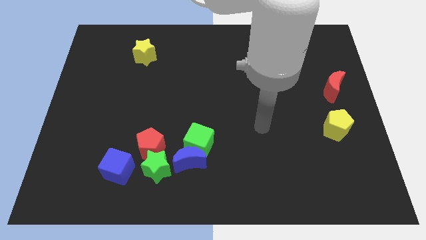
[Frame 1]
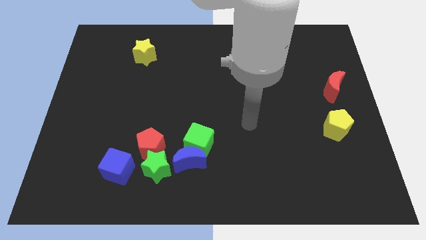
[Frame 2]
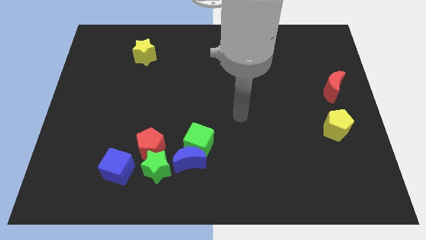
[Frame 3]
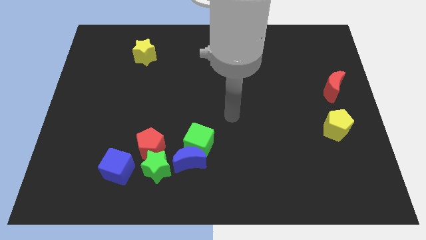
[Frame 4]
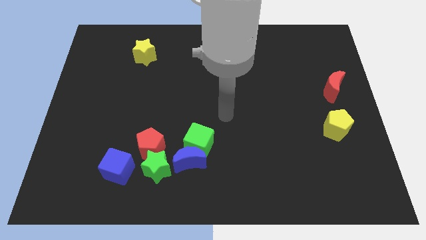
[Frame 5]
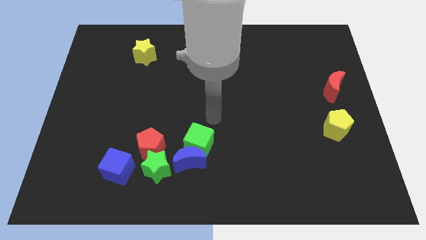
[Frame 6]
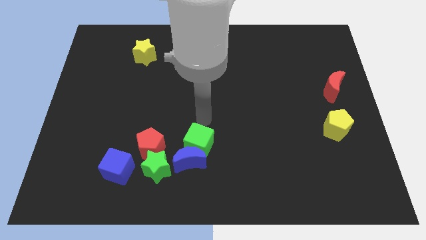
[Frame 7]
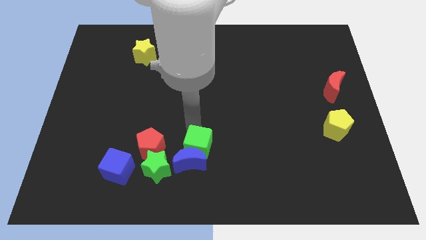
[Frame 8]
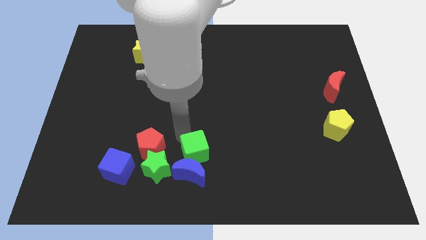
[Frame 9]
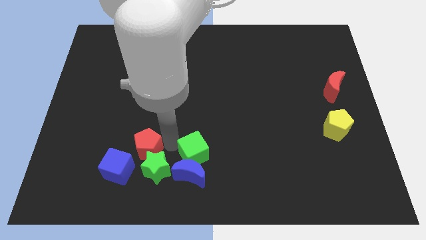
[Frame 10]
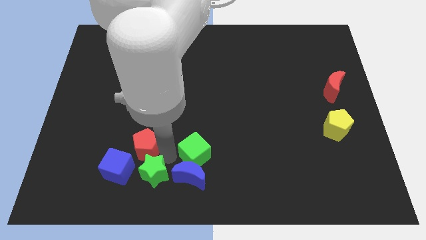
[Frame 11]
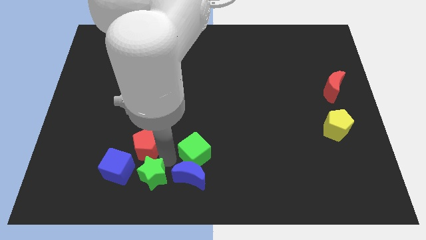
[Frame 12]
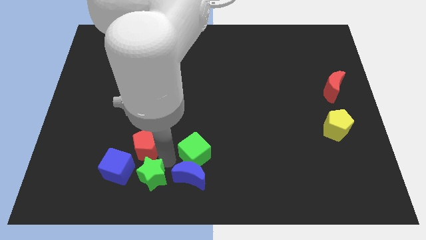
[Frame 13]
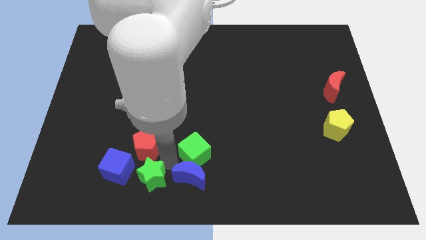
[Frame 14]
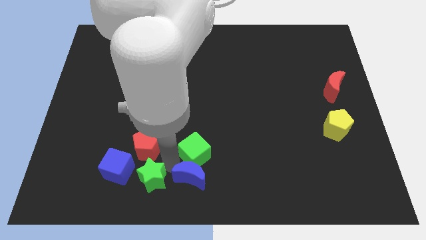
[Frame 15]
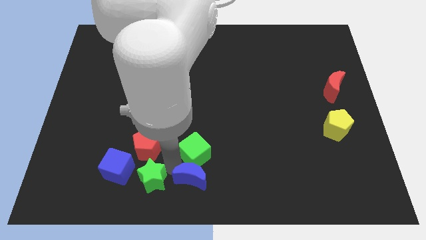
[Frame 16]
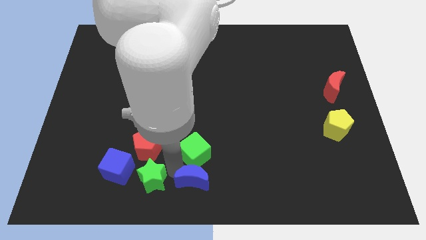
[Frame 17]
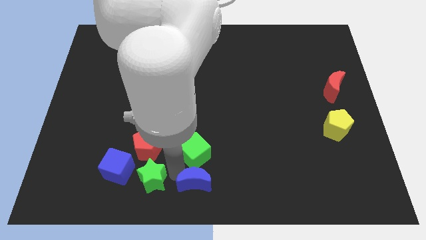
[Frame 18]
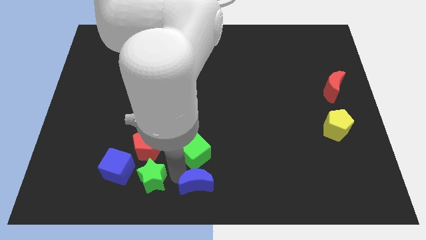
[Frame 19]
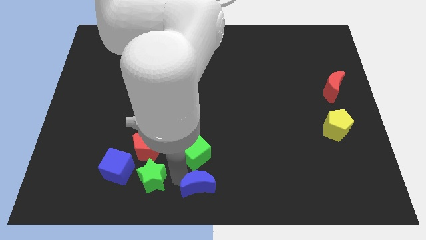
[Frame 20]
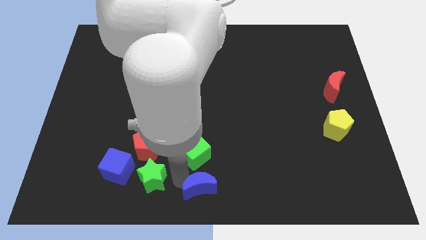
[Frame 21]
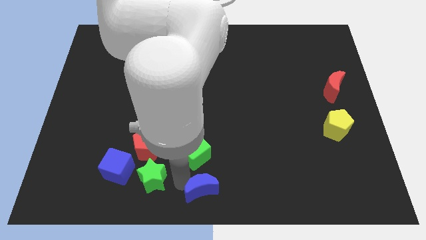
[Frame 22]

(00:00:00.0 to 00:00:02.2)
pull the blue moon apart from the green cube, green star, and red pentagon

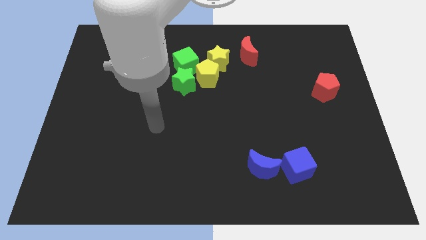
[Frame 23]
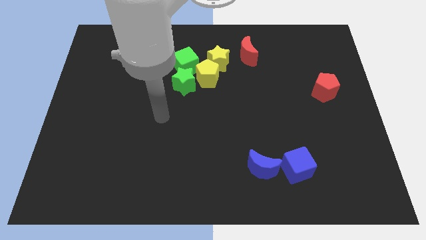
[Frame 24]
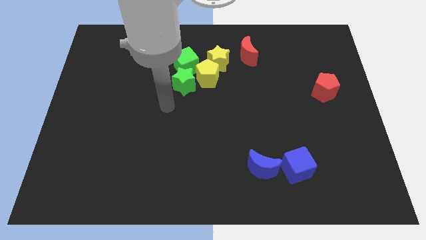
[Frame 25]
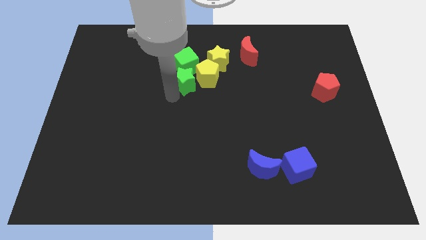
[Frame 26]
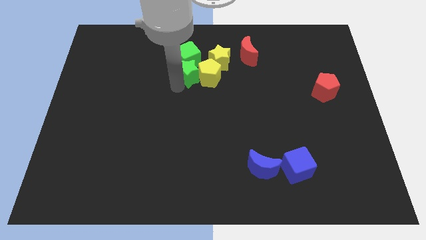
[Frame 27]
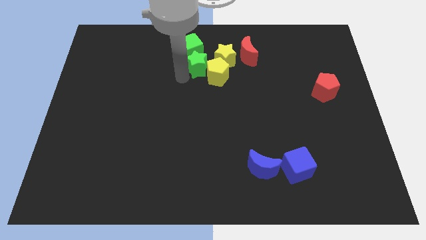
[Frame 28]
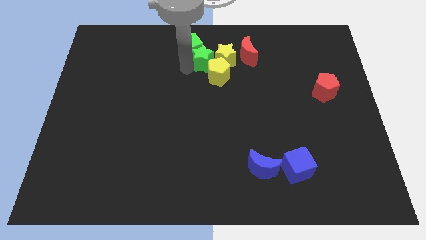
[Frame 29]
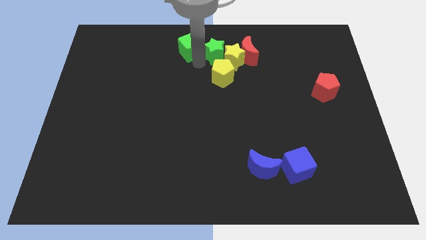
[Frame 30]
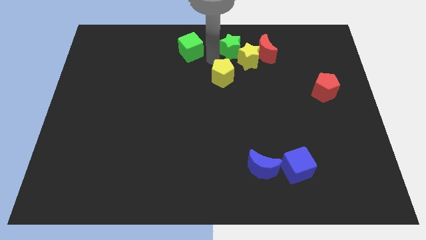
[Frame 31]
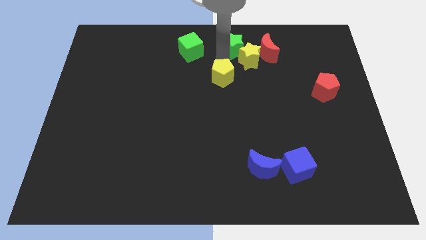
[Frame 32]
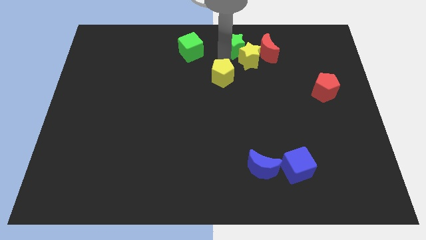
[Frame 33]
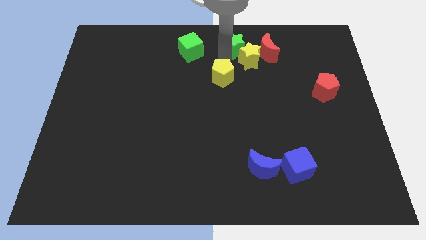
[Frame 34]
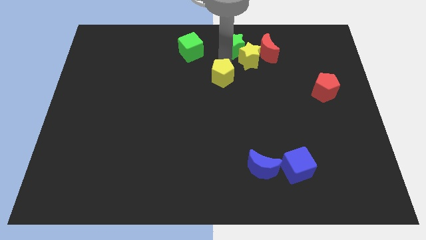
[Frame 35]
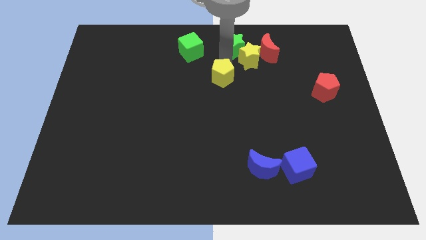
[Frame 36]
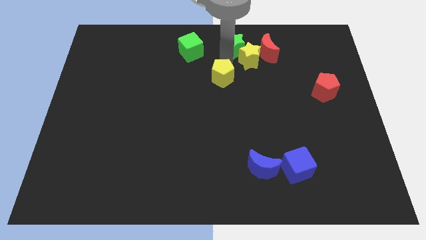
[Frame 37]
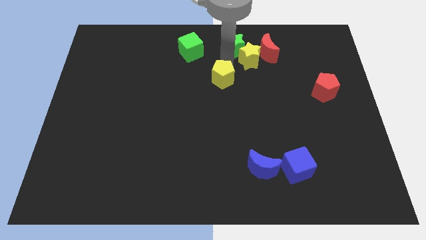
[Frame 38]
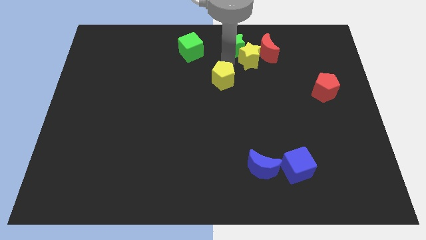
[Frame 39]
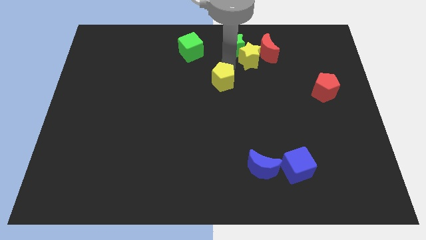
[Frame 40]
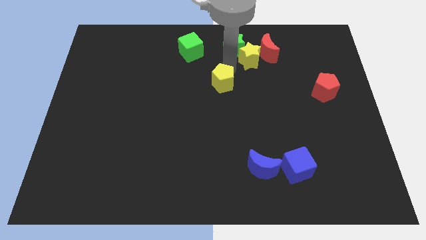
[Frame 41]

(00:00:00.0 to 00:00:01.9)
pull the yellow pentagon apart from the group

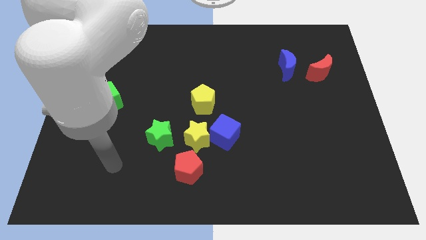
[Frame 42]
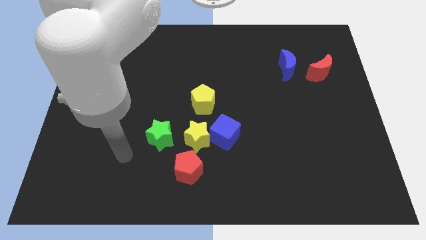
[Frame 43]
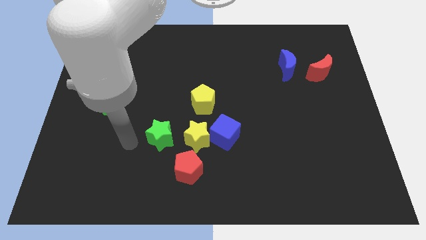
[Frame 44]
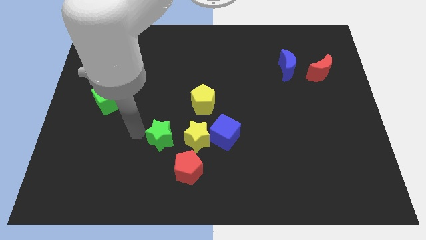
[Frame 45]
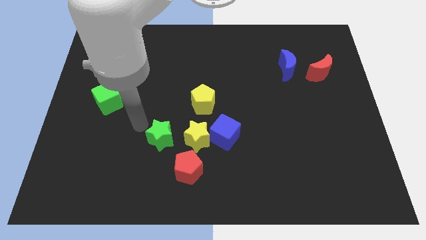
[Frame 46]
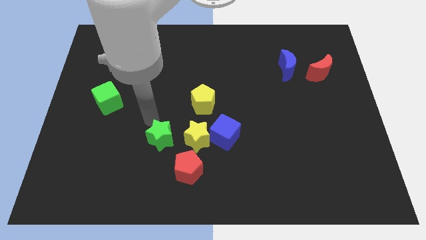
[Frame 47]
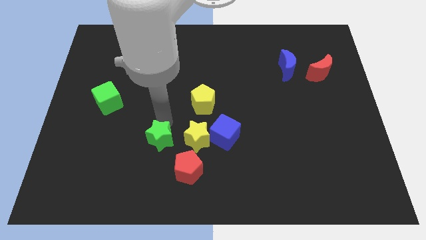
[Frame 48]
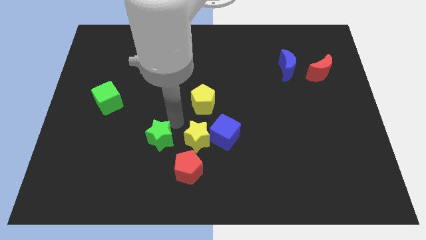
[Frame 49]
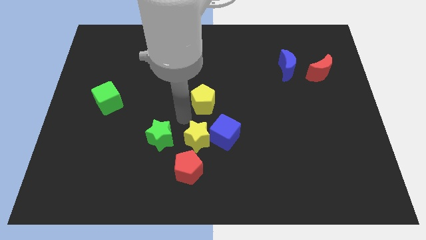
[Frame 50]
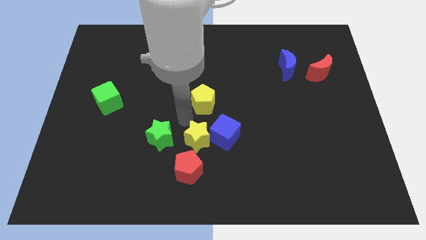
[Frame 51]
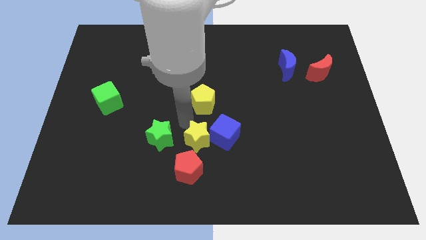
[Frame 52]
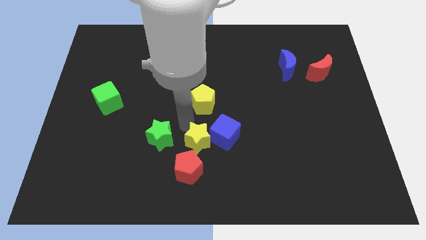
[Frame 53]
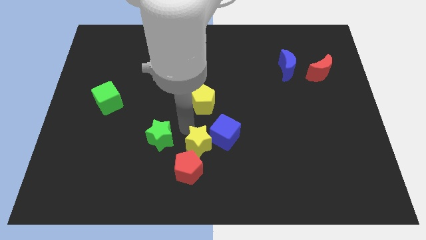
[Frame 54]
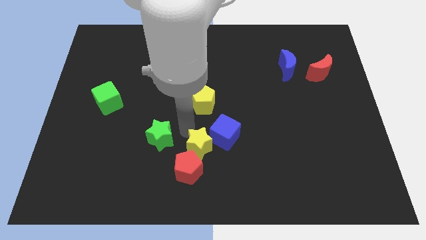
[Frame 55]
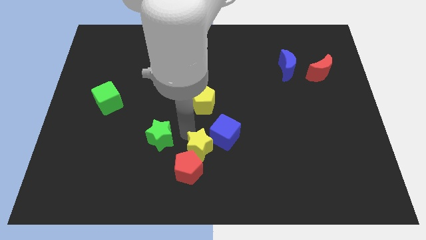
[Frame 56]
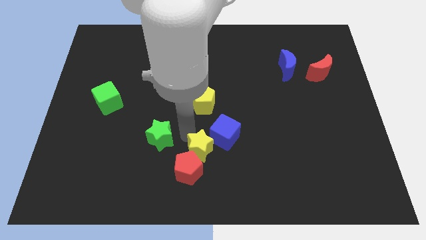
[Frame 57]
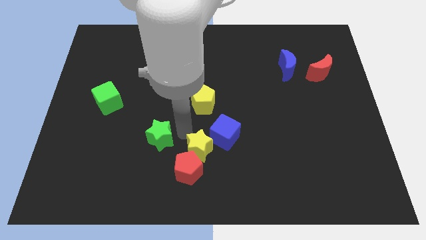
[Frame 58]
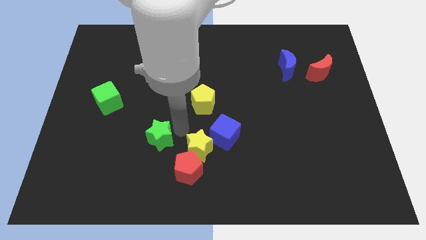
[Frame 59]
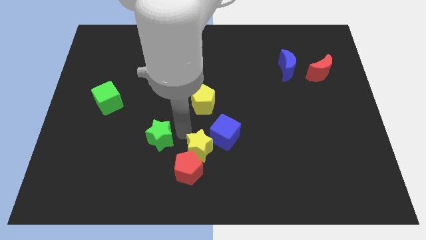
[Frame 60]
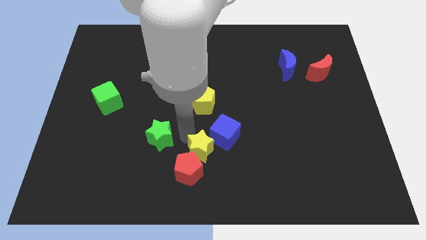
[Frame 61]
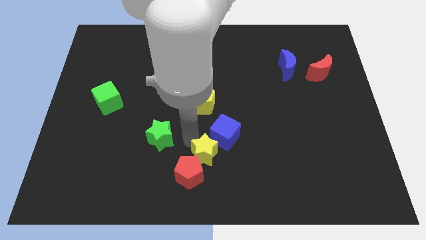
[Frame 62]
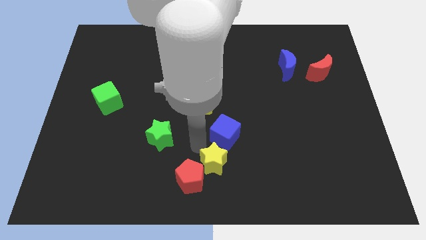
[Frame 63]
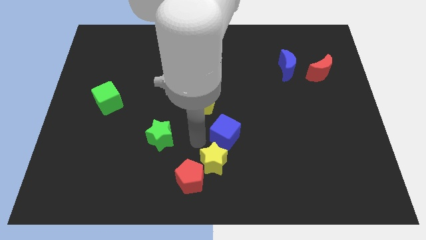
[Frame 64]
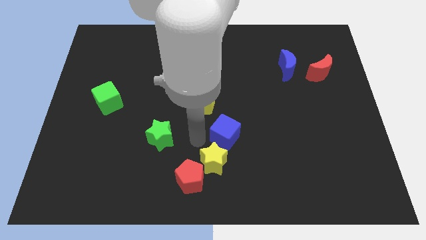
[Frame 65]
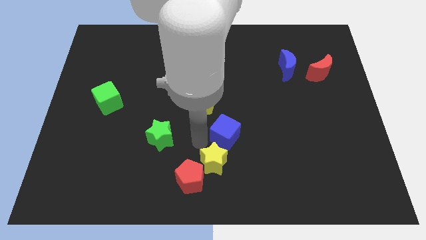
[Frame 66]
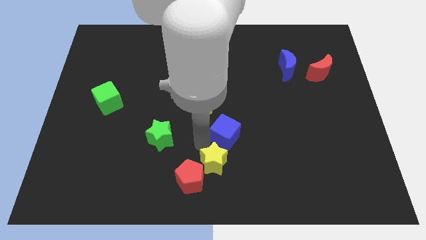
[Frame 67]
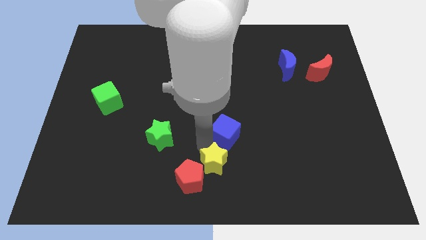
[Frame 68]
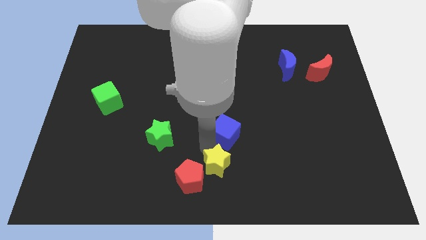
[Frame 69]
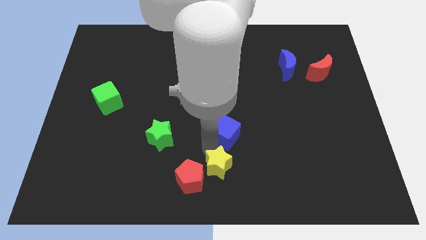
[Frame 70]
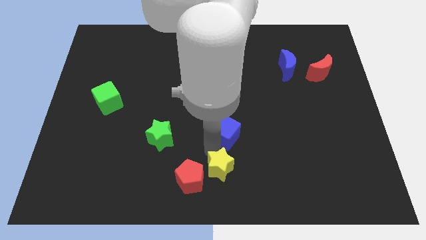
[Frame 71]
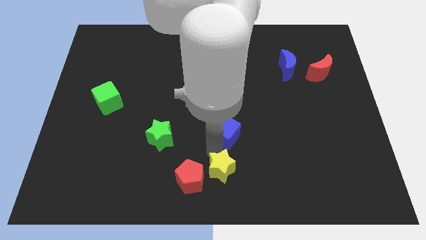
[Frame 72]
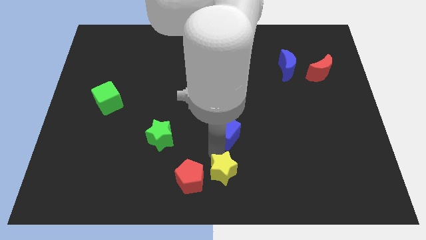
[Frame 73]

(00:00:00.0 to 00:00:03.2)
move the yellow star away from the clump

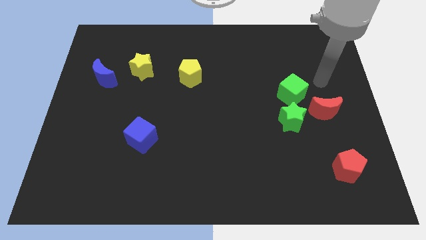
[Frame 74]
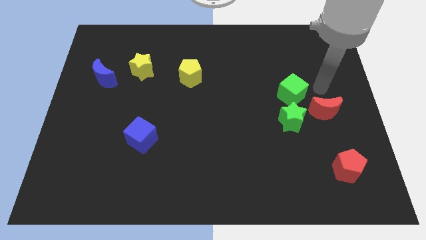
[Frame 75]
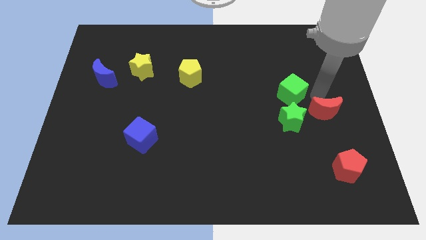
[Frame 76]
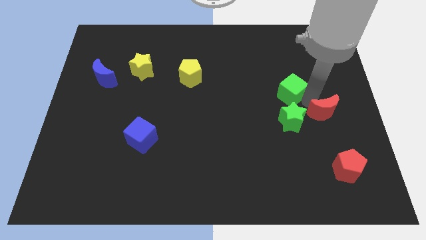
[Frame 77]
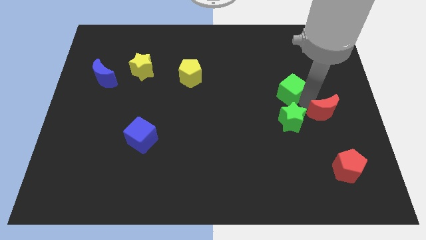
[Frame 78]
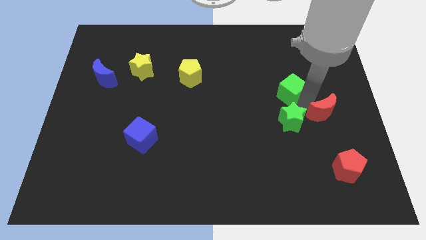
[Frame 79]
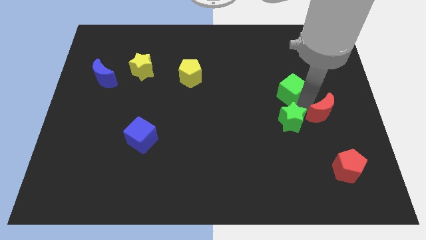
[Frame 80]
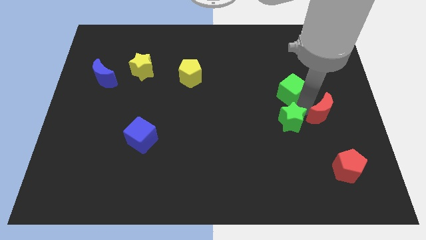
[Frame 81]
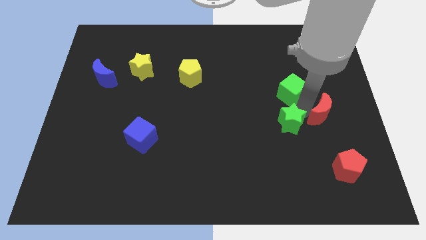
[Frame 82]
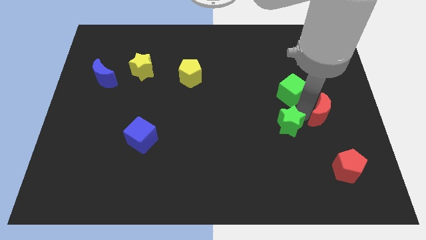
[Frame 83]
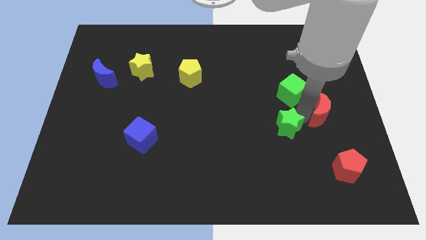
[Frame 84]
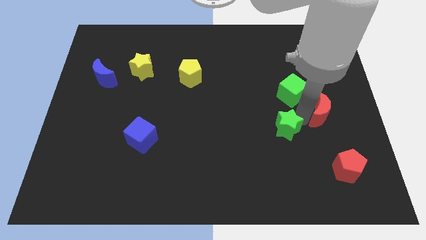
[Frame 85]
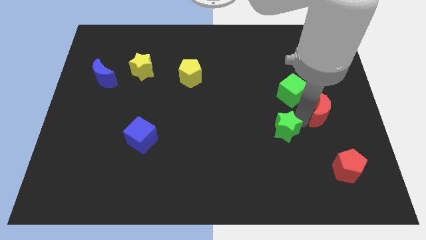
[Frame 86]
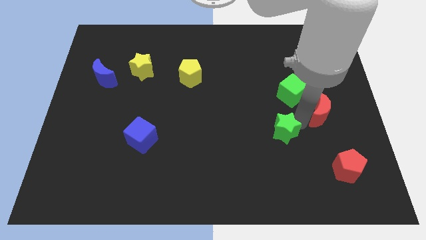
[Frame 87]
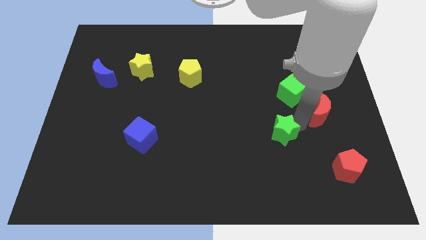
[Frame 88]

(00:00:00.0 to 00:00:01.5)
pull the green star apart from the green cube and red moon

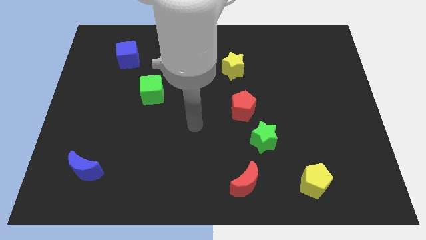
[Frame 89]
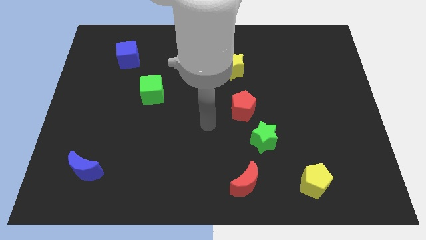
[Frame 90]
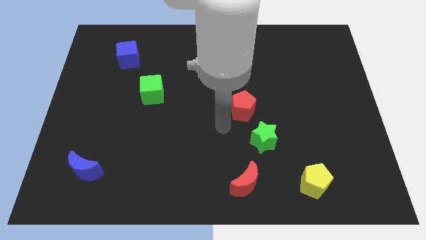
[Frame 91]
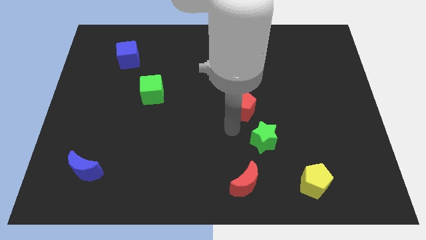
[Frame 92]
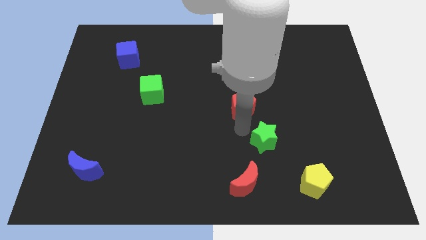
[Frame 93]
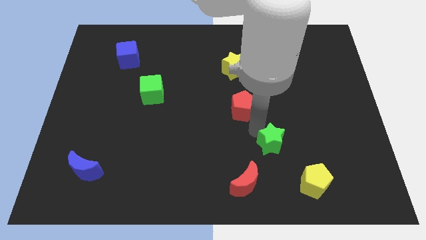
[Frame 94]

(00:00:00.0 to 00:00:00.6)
pull the red pentagon apart from the green star

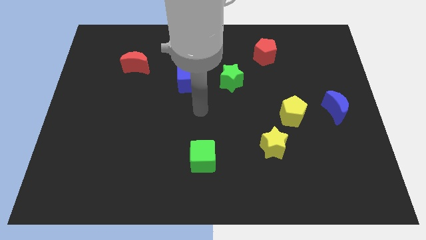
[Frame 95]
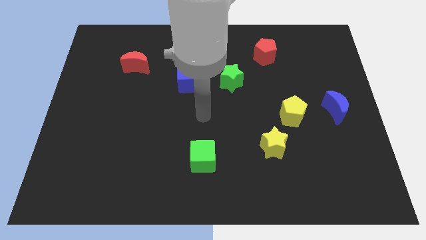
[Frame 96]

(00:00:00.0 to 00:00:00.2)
separate the yellow star from the yellow pentagon
